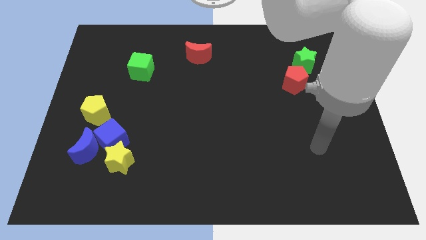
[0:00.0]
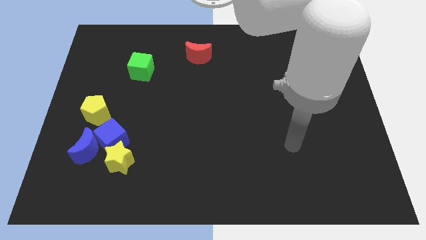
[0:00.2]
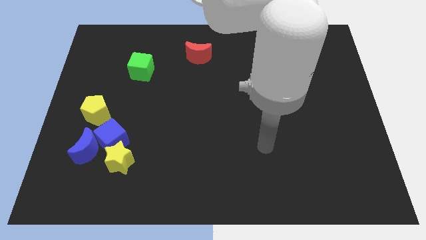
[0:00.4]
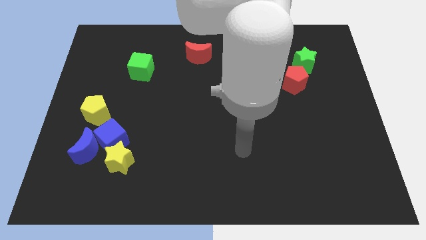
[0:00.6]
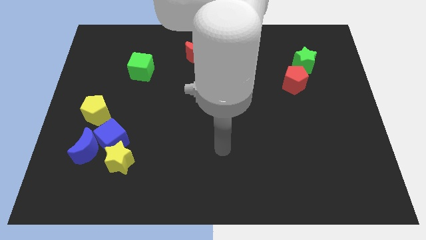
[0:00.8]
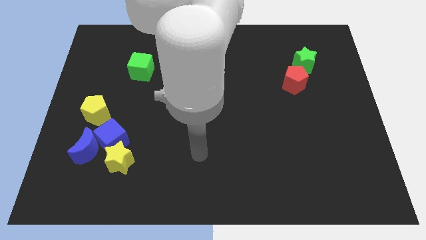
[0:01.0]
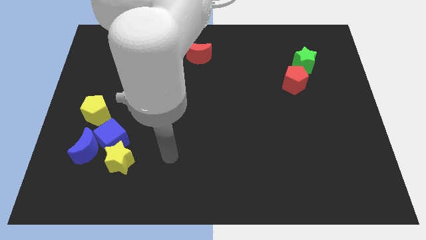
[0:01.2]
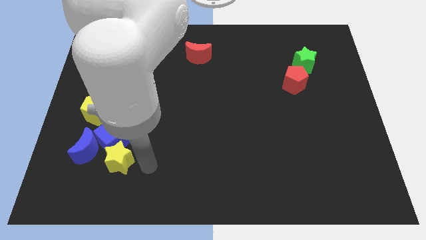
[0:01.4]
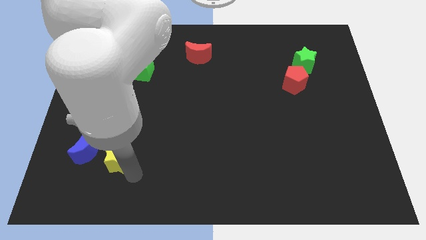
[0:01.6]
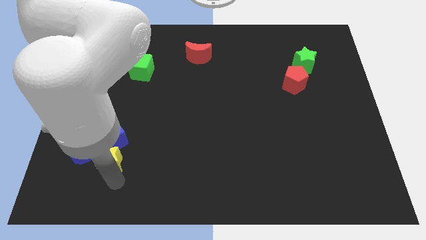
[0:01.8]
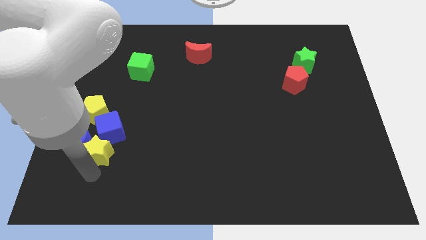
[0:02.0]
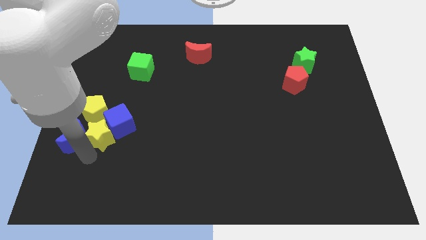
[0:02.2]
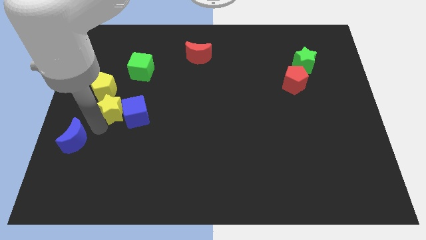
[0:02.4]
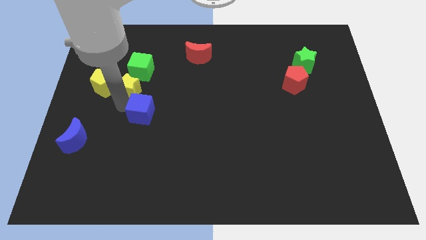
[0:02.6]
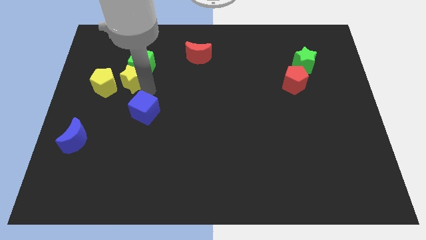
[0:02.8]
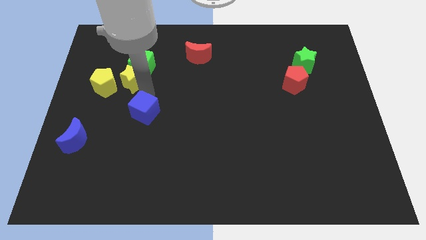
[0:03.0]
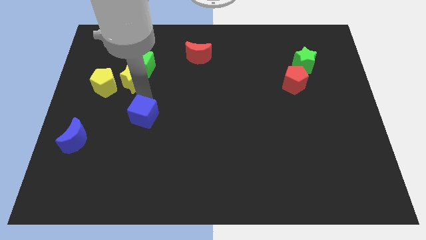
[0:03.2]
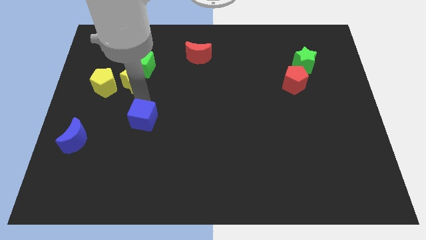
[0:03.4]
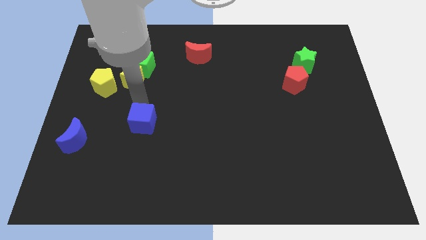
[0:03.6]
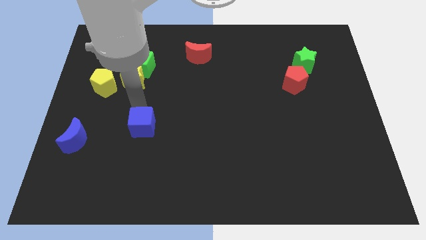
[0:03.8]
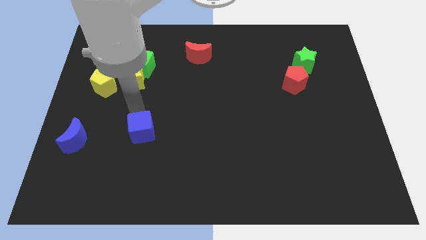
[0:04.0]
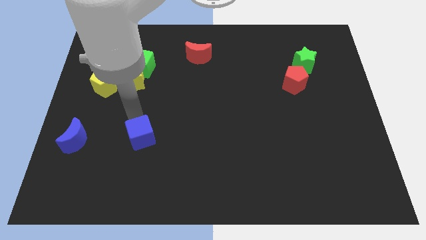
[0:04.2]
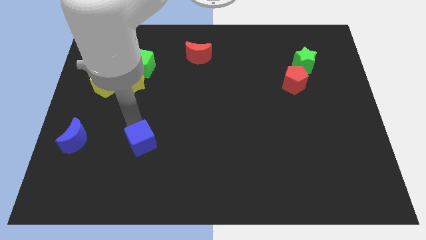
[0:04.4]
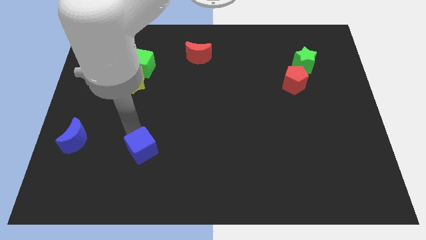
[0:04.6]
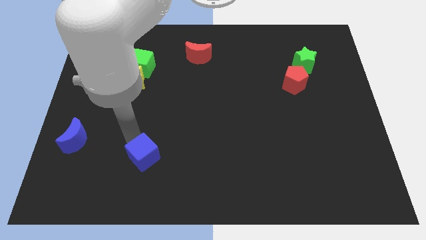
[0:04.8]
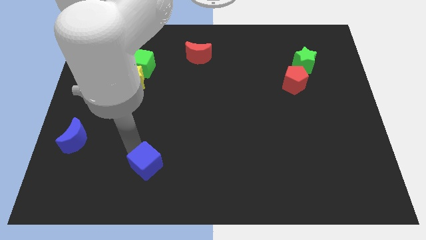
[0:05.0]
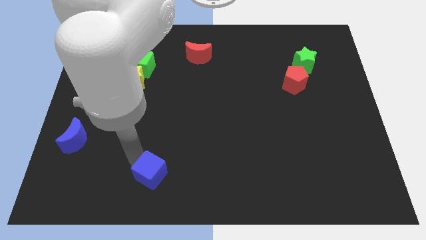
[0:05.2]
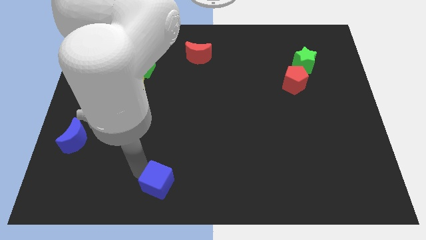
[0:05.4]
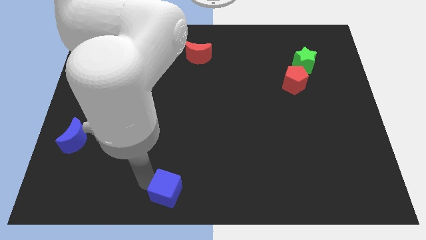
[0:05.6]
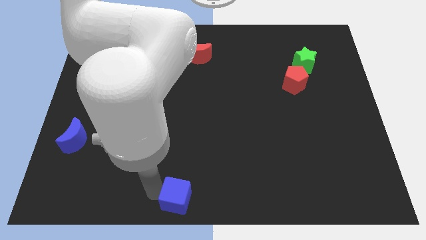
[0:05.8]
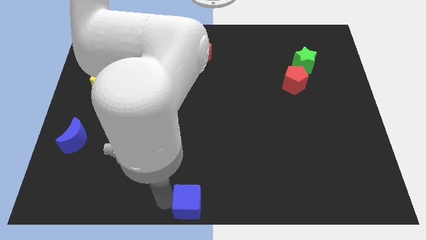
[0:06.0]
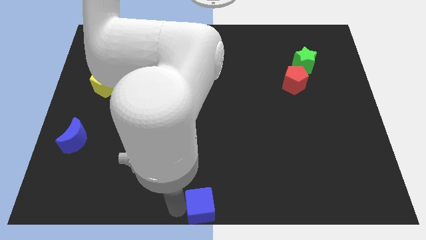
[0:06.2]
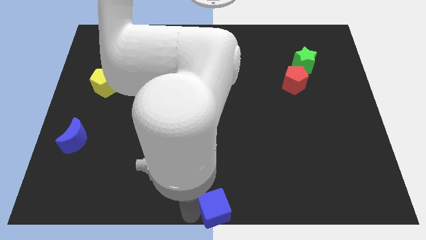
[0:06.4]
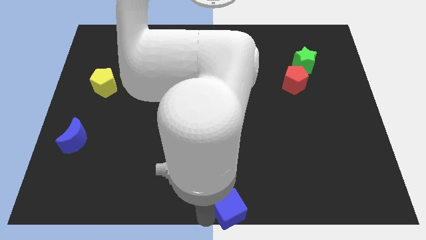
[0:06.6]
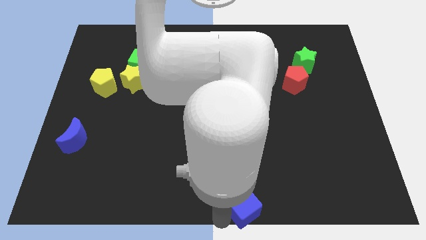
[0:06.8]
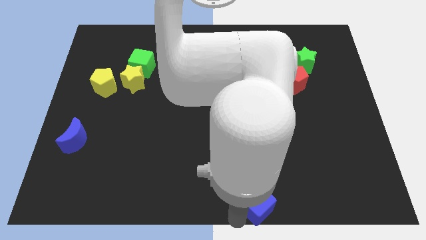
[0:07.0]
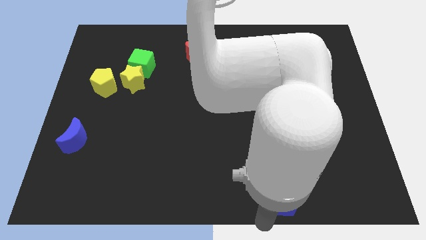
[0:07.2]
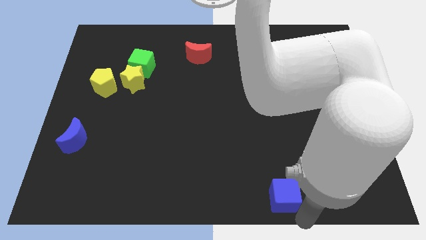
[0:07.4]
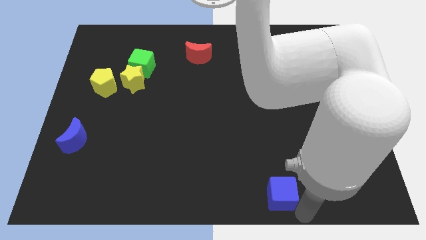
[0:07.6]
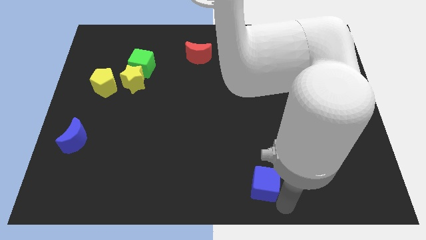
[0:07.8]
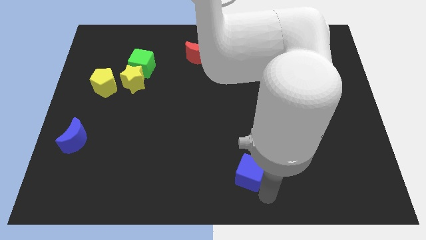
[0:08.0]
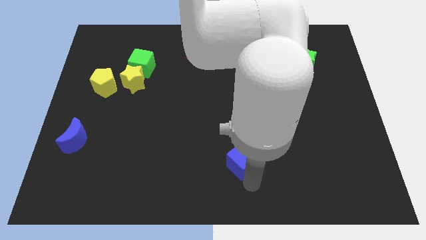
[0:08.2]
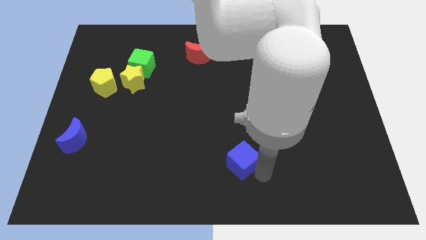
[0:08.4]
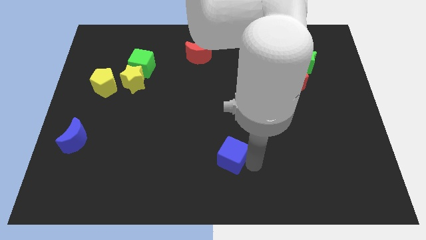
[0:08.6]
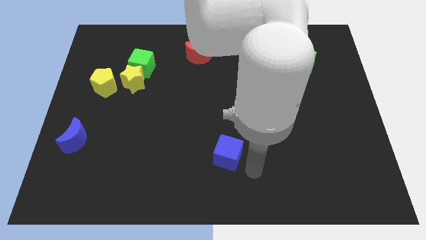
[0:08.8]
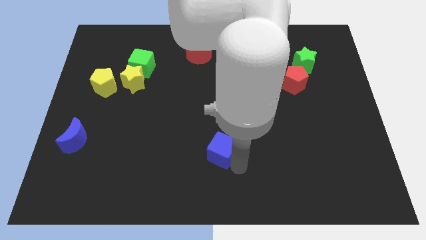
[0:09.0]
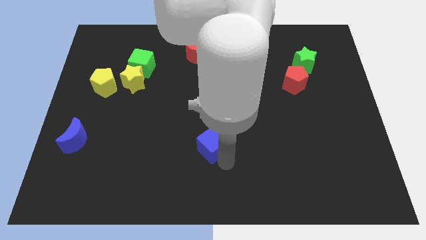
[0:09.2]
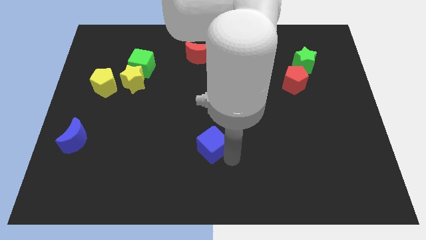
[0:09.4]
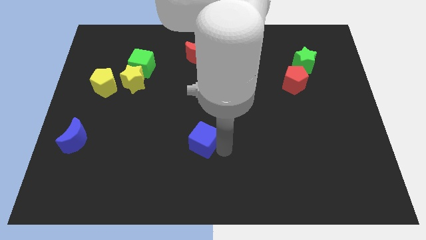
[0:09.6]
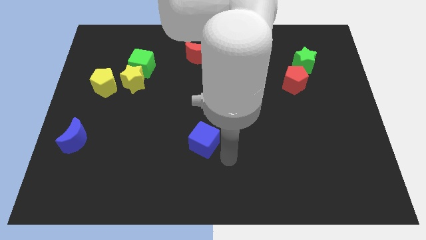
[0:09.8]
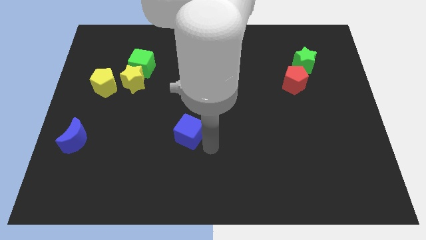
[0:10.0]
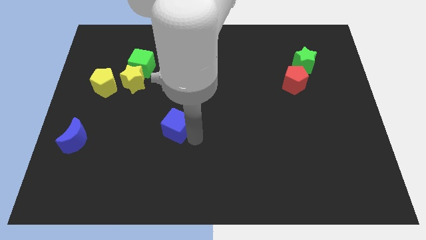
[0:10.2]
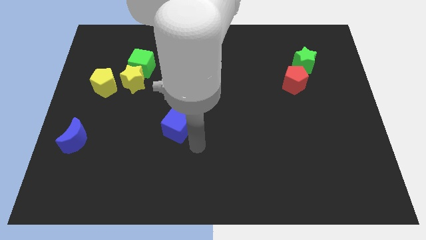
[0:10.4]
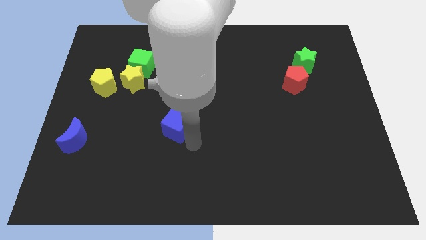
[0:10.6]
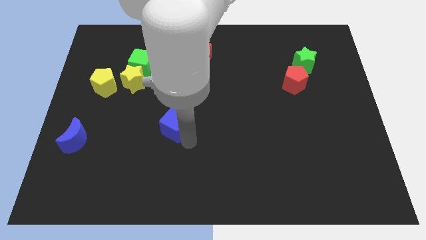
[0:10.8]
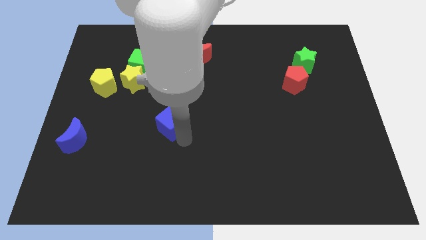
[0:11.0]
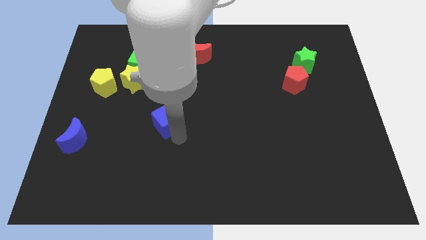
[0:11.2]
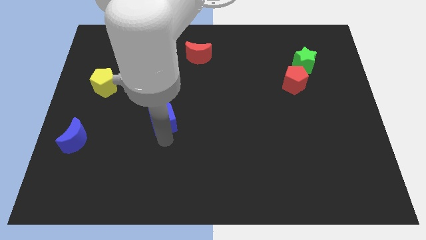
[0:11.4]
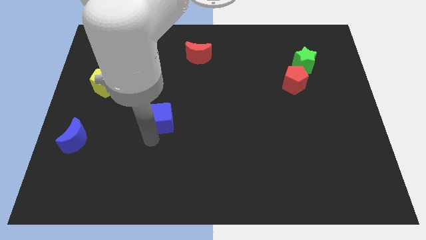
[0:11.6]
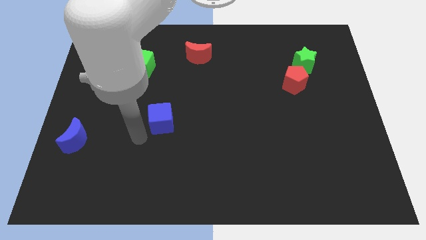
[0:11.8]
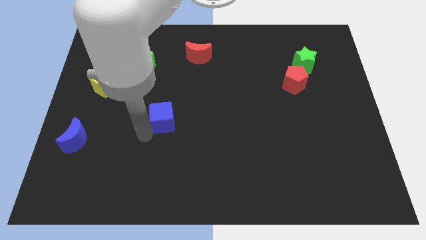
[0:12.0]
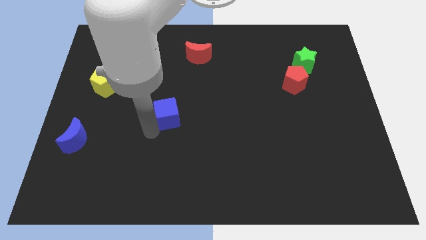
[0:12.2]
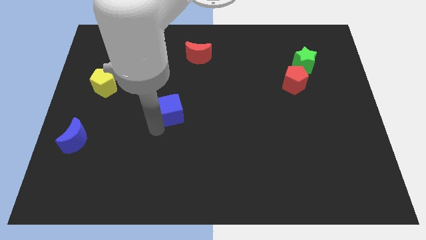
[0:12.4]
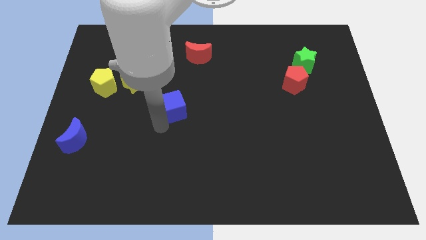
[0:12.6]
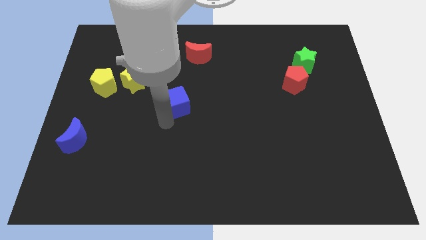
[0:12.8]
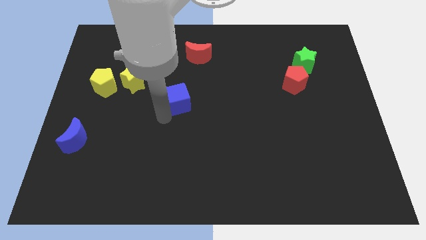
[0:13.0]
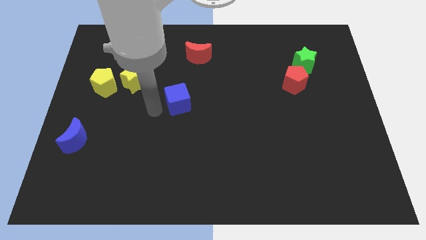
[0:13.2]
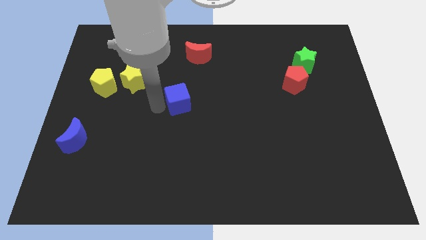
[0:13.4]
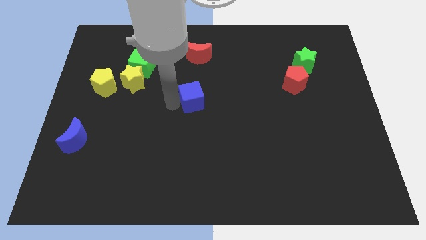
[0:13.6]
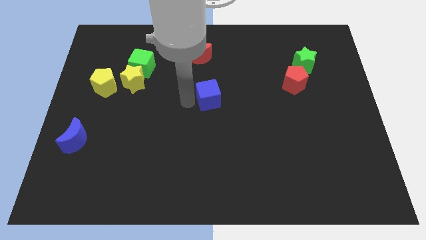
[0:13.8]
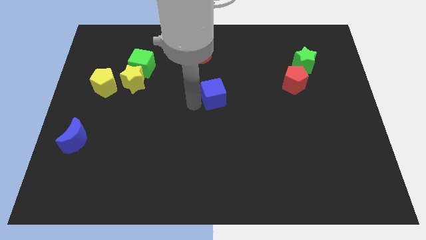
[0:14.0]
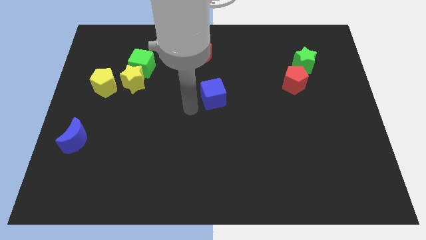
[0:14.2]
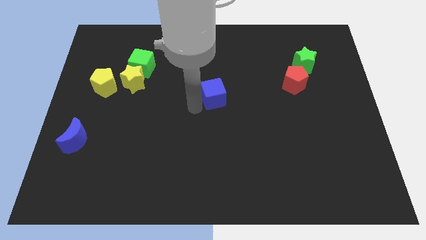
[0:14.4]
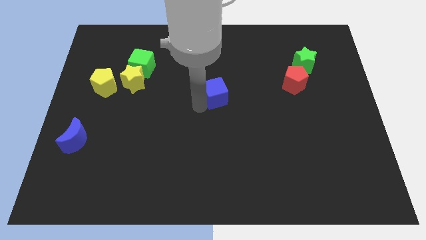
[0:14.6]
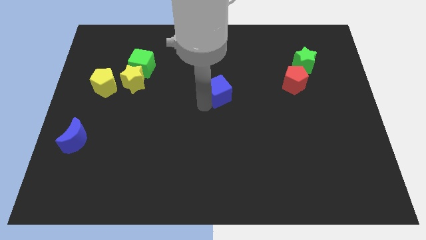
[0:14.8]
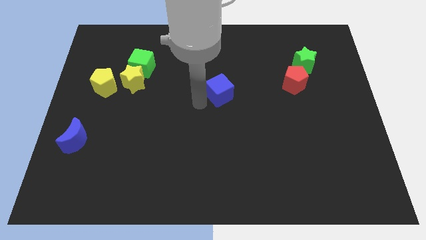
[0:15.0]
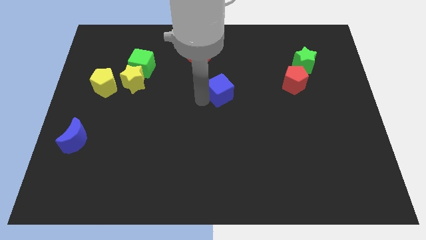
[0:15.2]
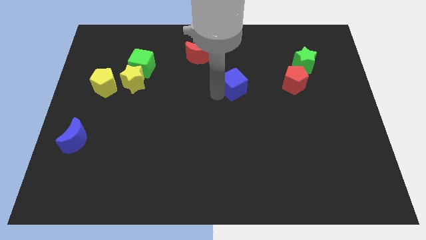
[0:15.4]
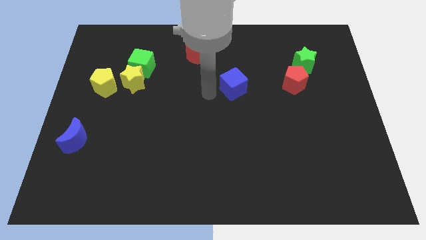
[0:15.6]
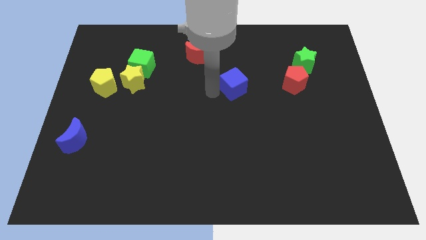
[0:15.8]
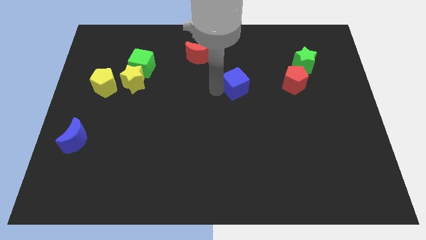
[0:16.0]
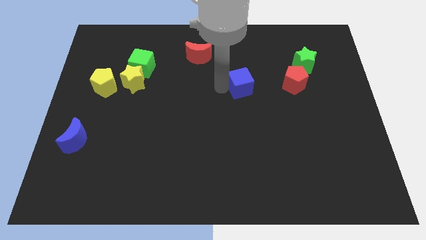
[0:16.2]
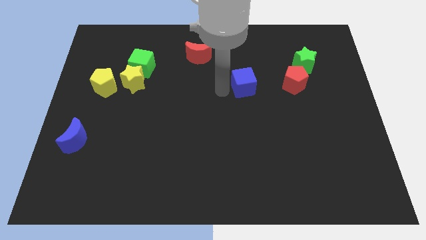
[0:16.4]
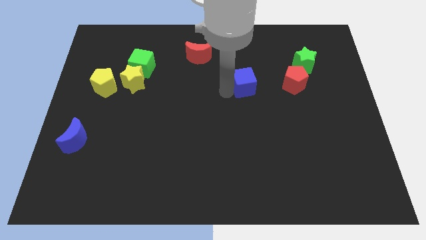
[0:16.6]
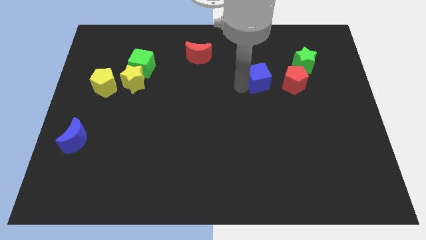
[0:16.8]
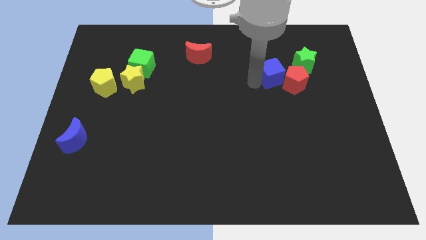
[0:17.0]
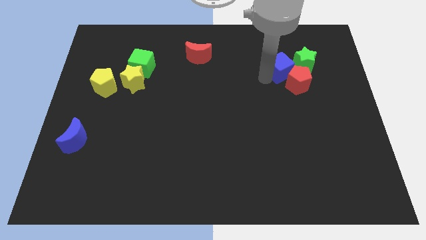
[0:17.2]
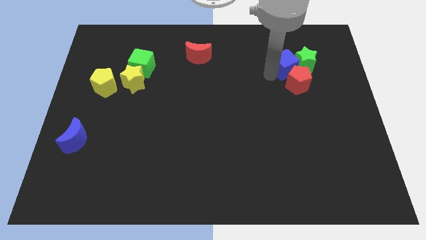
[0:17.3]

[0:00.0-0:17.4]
slide the blue cube to the green star
